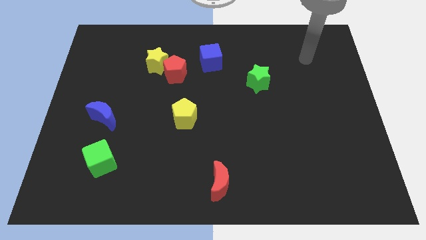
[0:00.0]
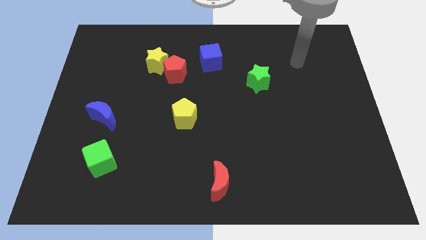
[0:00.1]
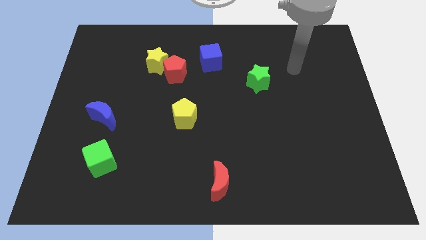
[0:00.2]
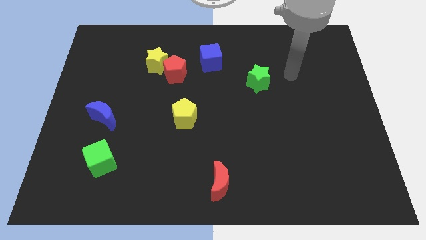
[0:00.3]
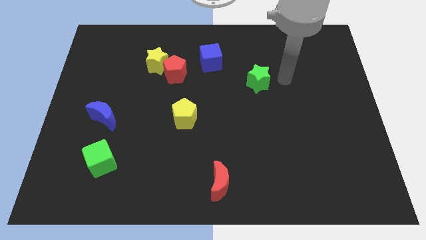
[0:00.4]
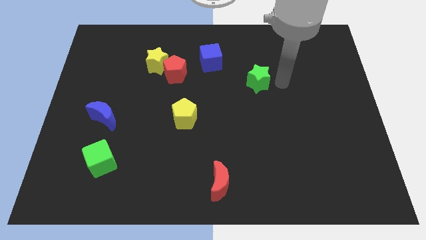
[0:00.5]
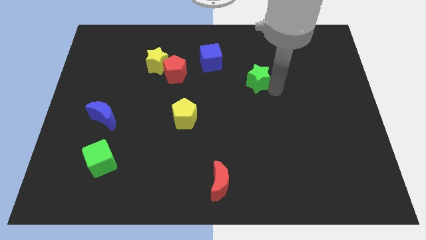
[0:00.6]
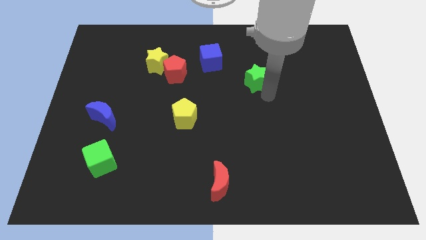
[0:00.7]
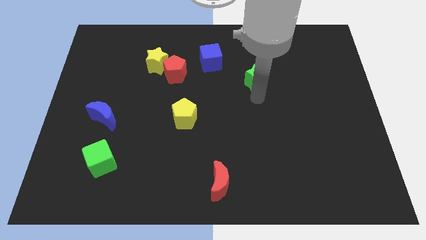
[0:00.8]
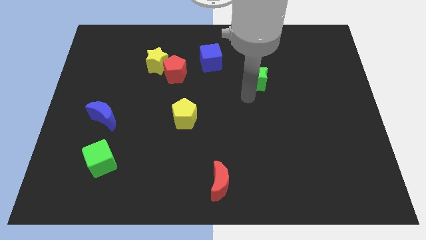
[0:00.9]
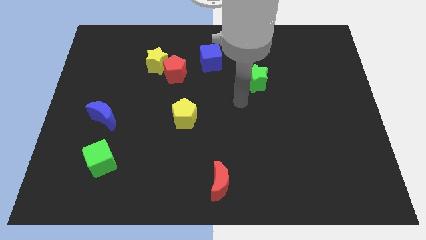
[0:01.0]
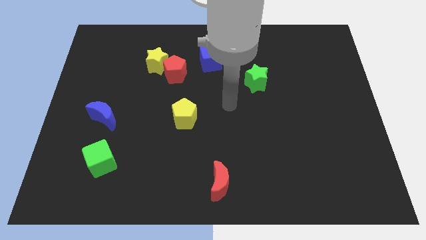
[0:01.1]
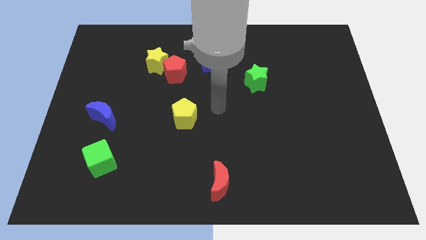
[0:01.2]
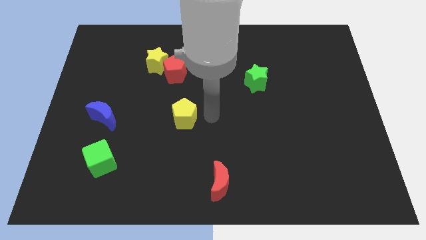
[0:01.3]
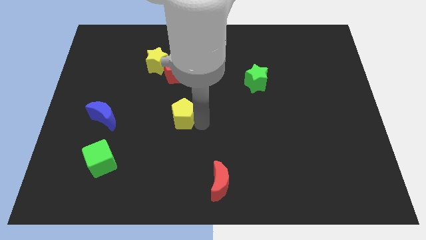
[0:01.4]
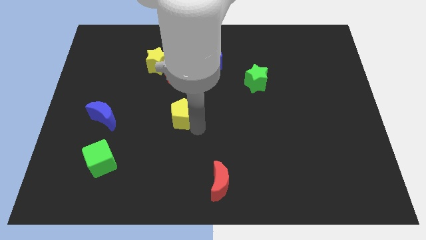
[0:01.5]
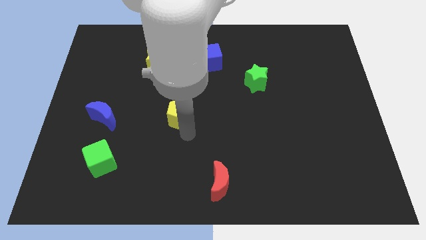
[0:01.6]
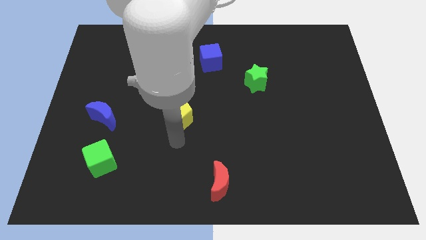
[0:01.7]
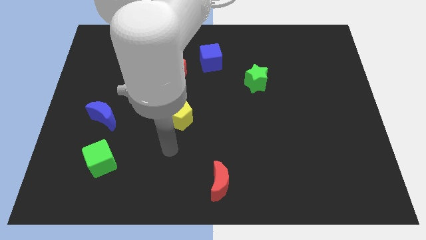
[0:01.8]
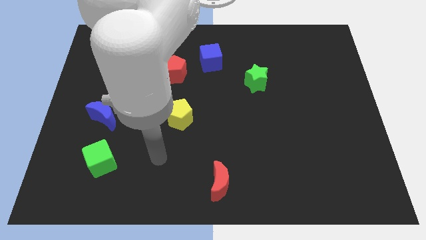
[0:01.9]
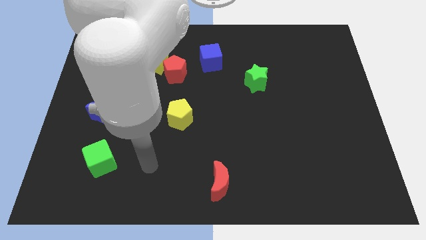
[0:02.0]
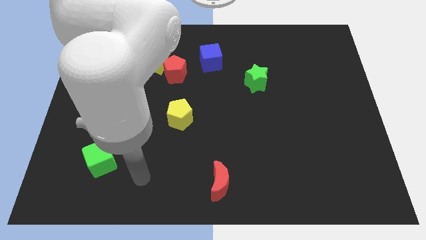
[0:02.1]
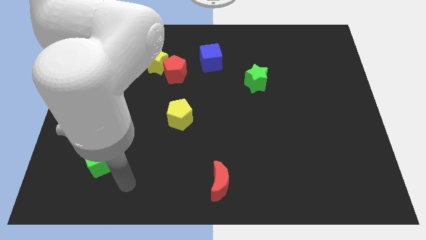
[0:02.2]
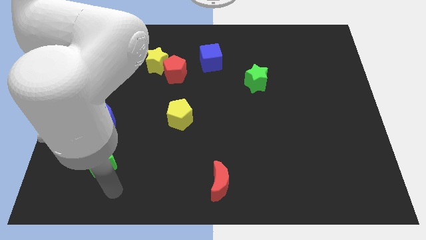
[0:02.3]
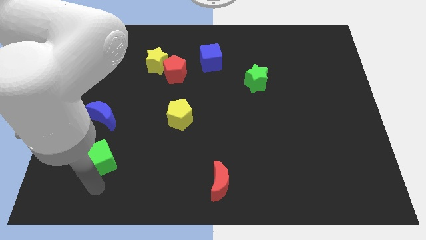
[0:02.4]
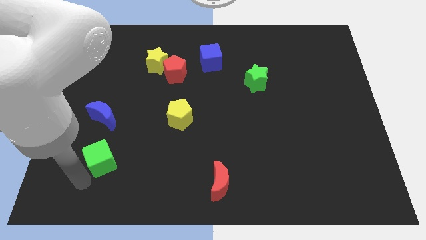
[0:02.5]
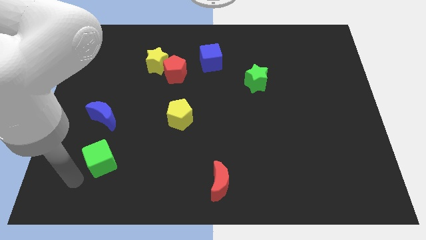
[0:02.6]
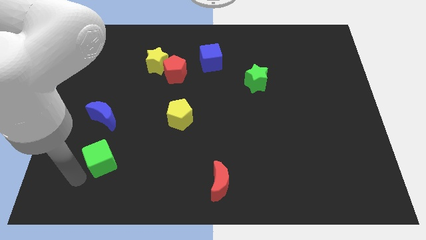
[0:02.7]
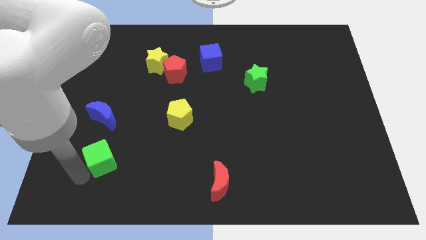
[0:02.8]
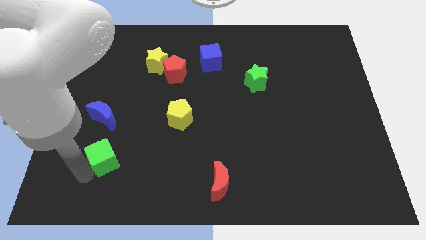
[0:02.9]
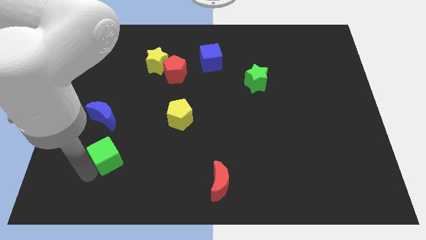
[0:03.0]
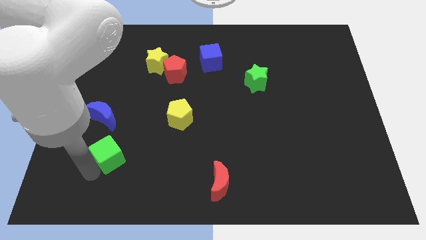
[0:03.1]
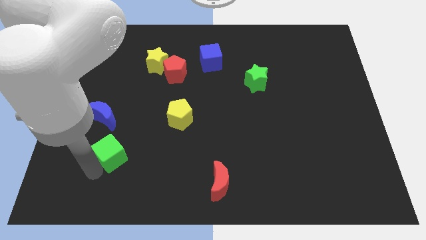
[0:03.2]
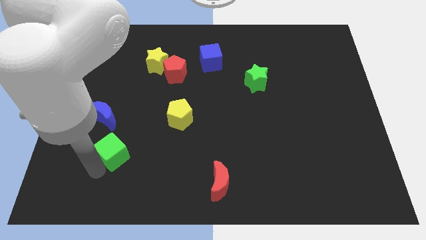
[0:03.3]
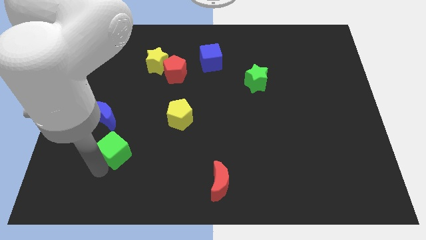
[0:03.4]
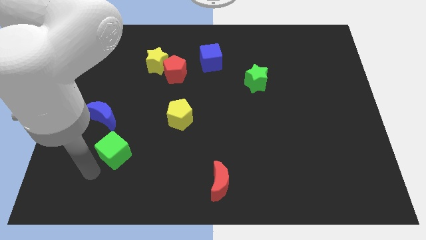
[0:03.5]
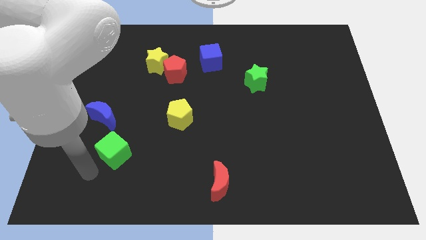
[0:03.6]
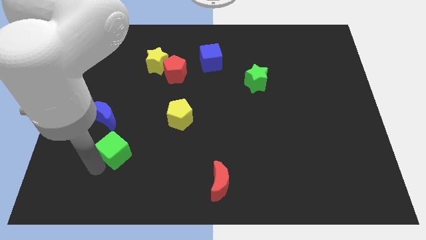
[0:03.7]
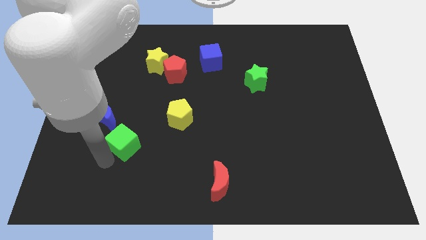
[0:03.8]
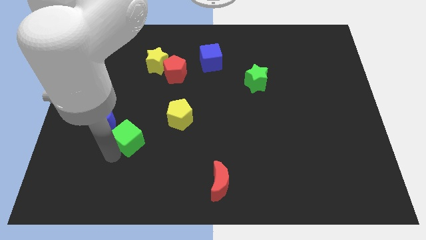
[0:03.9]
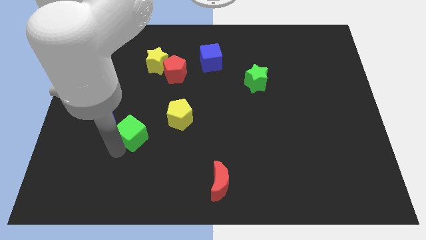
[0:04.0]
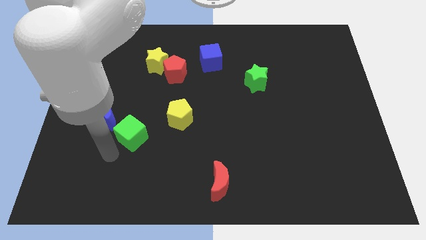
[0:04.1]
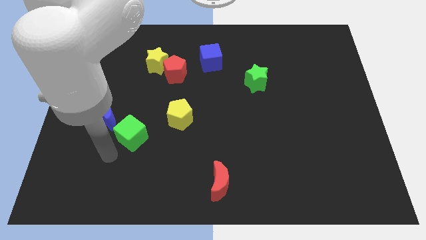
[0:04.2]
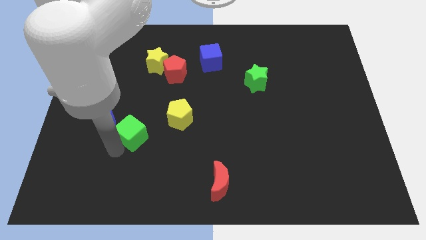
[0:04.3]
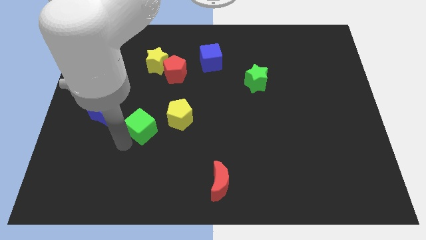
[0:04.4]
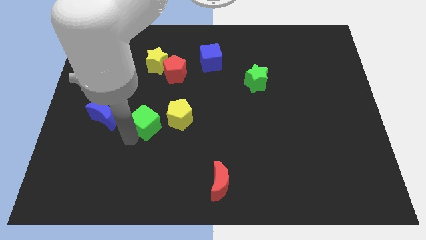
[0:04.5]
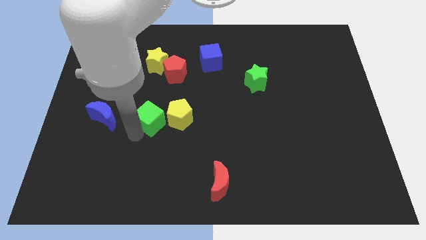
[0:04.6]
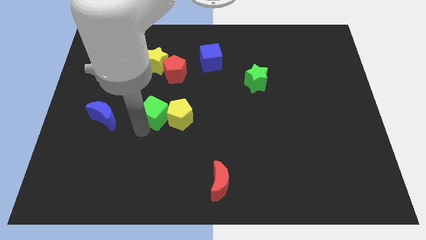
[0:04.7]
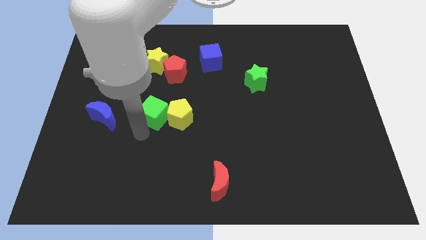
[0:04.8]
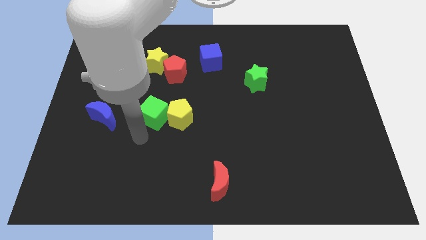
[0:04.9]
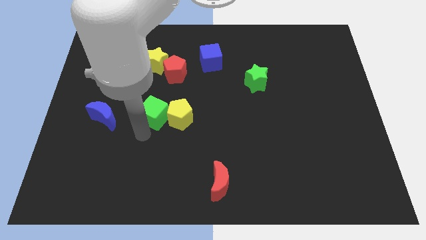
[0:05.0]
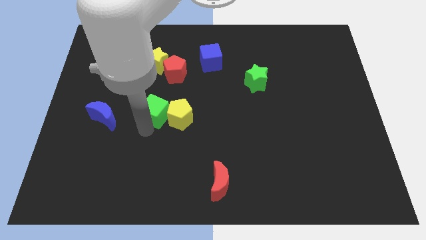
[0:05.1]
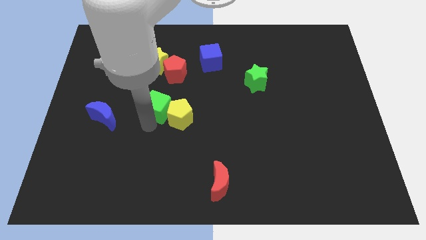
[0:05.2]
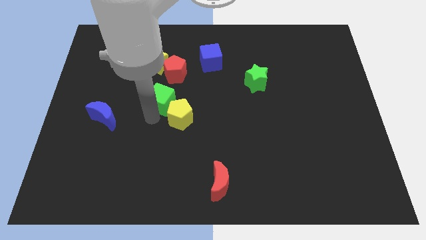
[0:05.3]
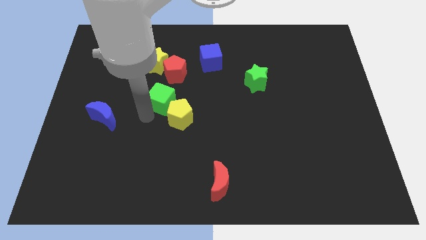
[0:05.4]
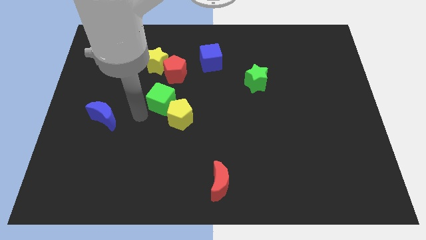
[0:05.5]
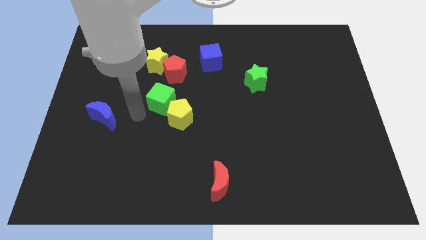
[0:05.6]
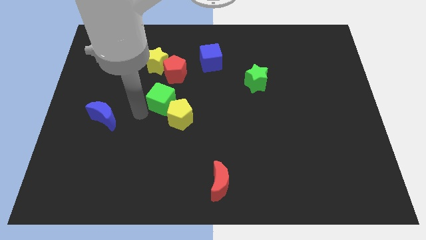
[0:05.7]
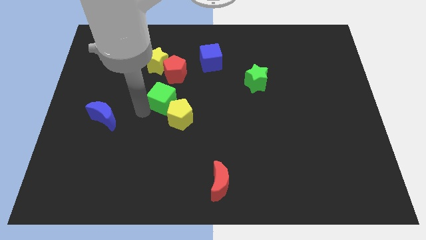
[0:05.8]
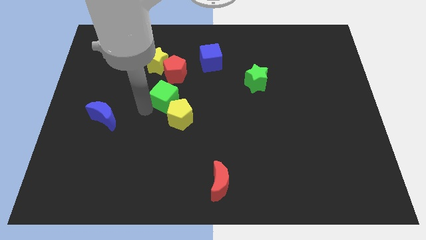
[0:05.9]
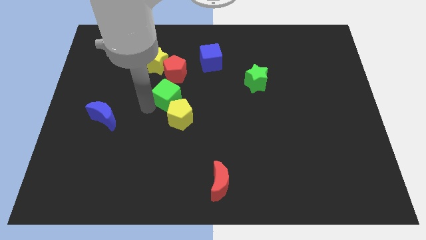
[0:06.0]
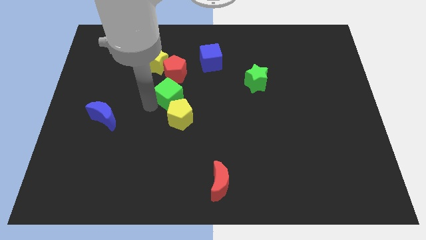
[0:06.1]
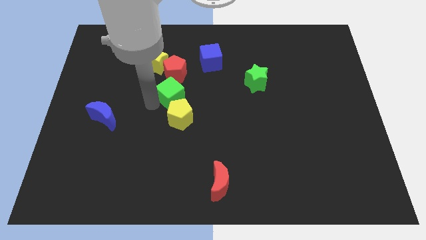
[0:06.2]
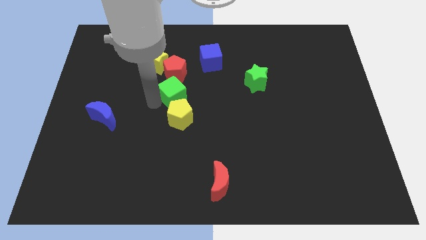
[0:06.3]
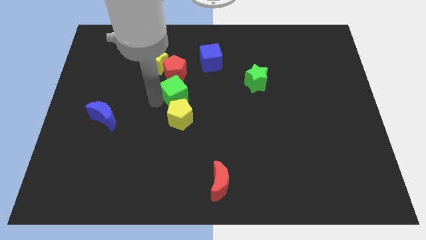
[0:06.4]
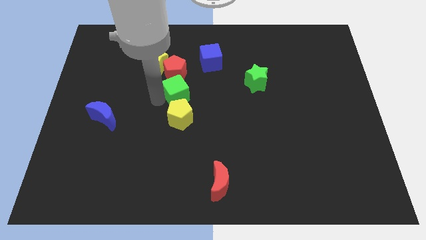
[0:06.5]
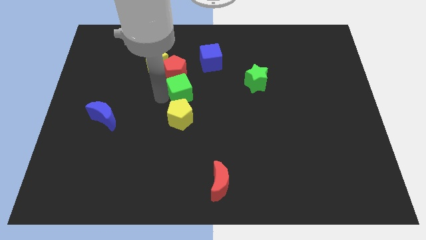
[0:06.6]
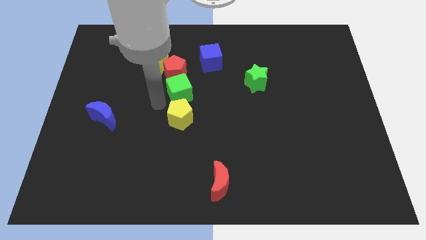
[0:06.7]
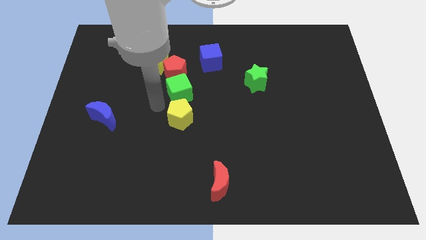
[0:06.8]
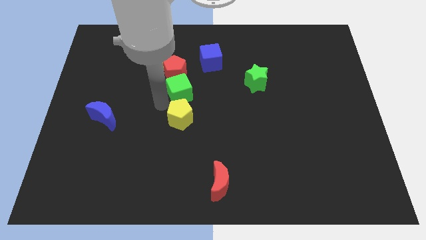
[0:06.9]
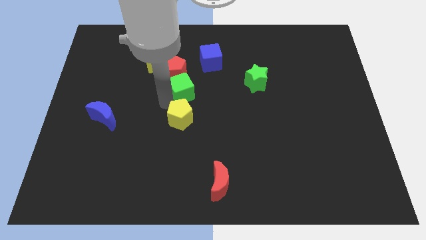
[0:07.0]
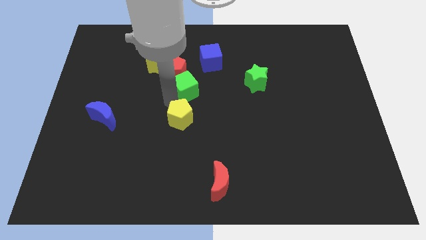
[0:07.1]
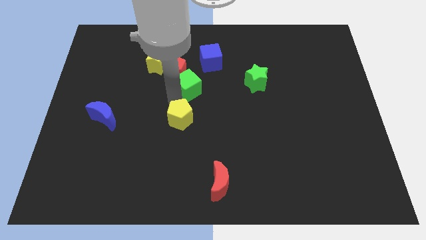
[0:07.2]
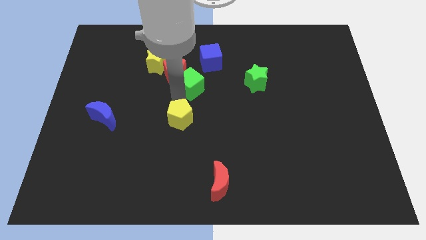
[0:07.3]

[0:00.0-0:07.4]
slide the green cube to the right side of the red pentagon
